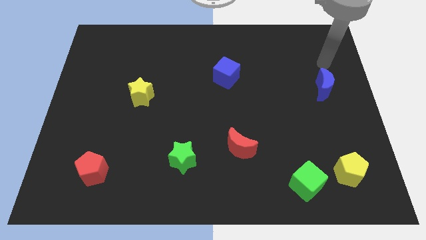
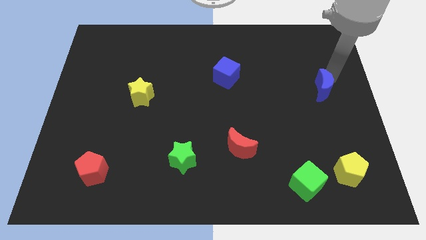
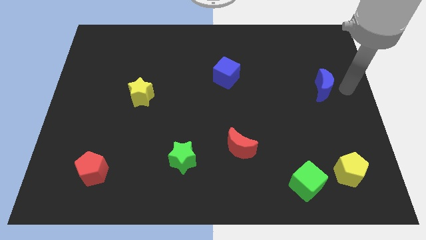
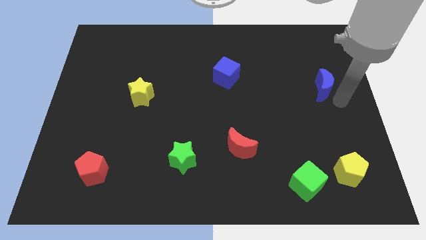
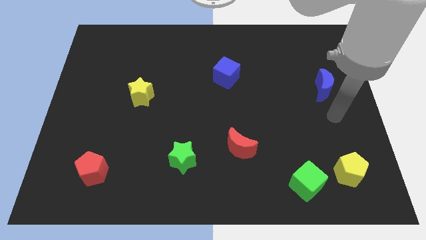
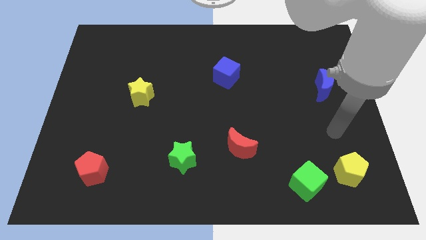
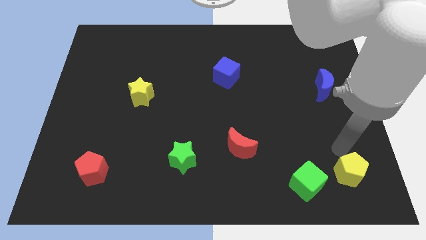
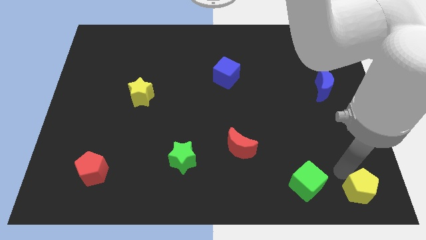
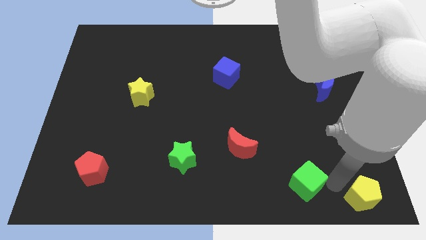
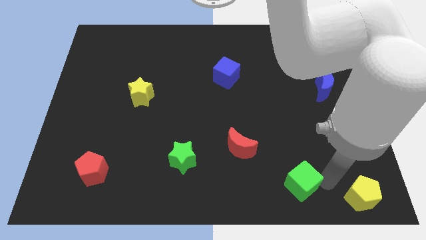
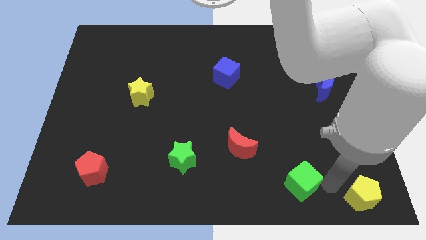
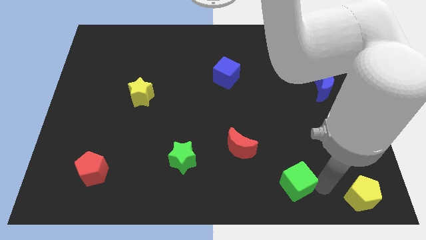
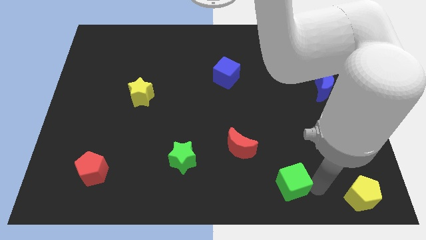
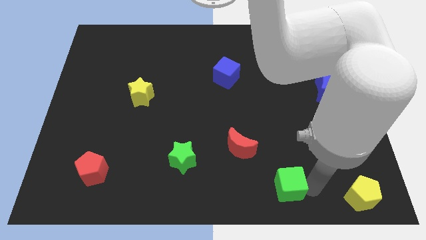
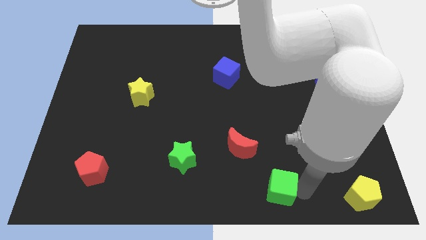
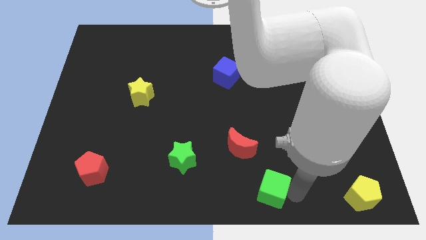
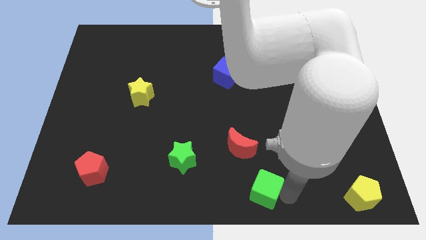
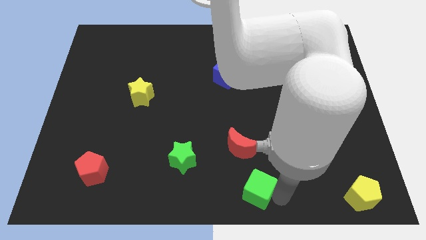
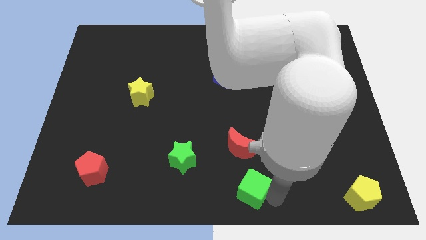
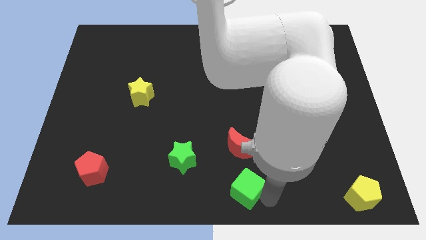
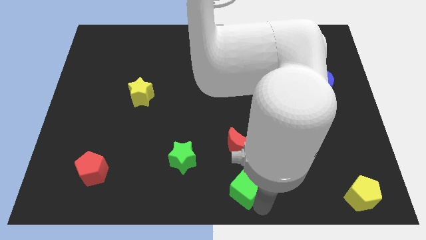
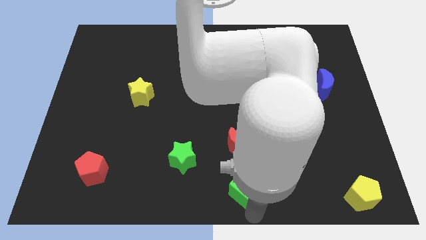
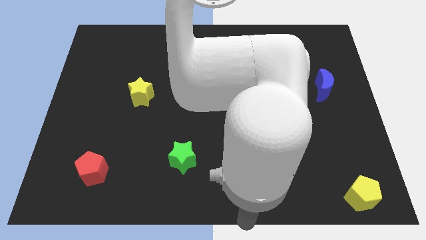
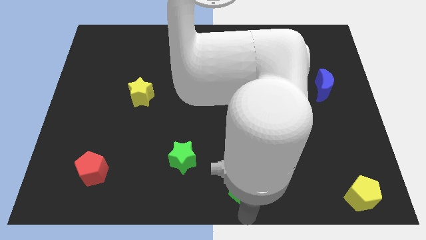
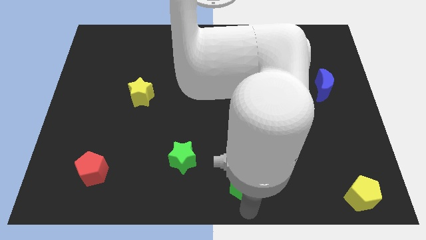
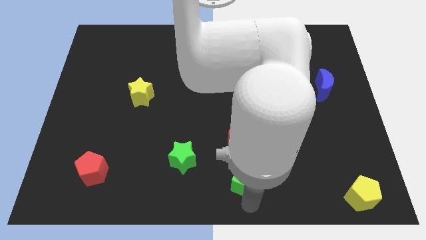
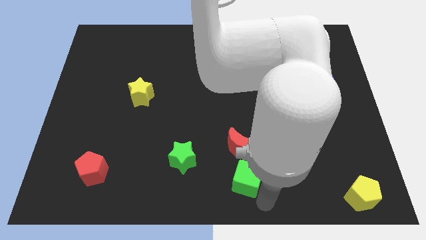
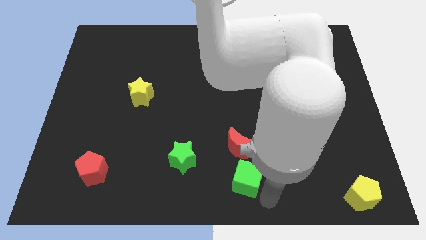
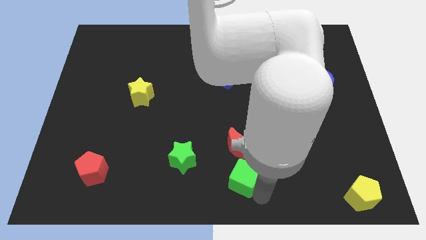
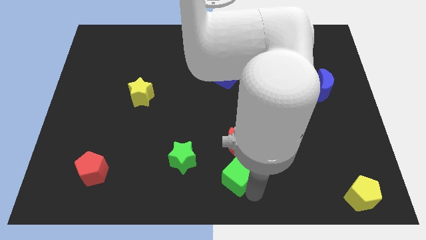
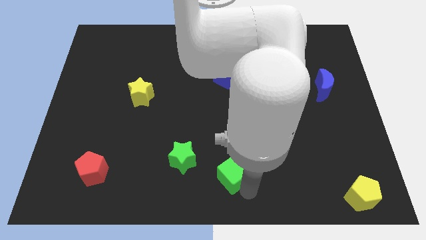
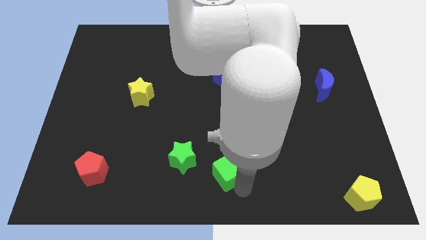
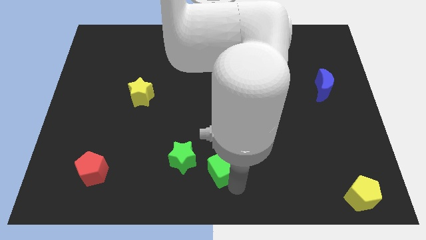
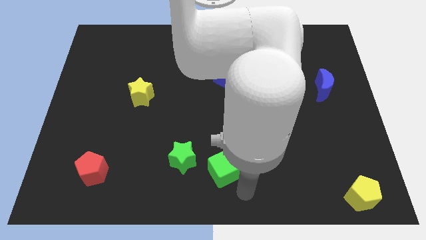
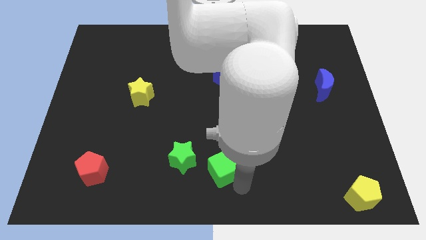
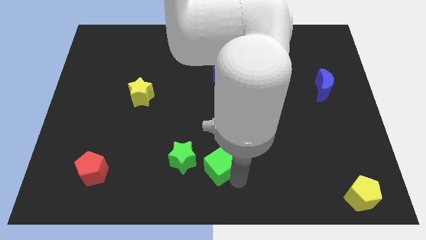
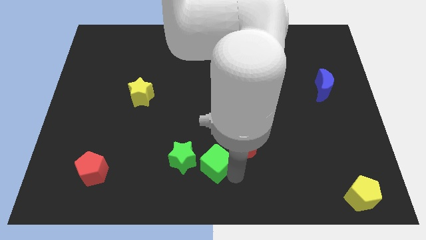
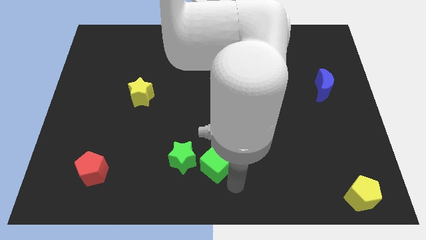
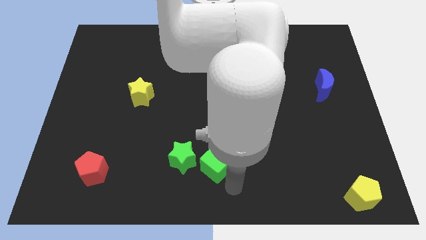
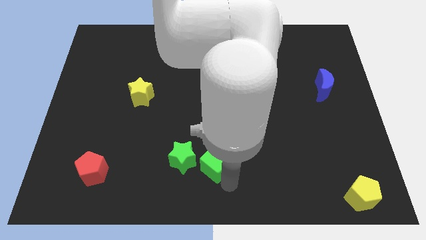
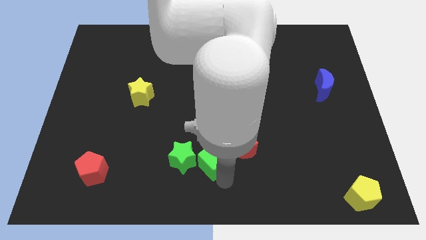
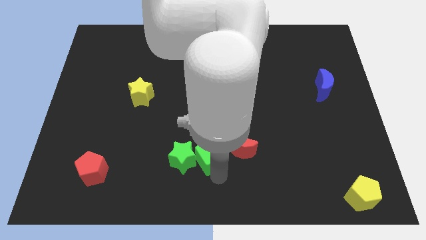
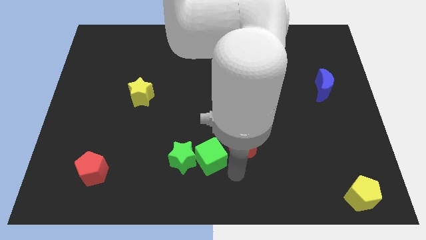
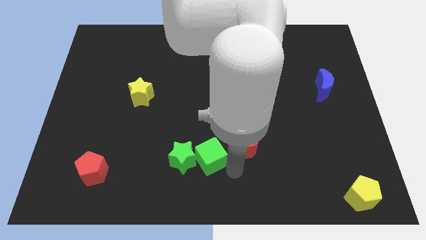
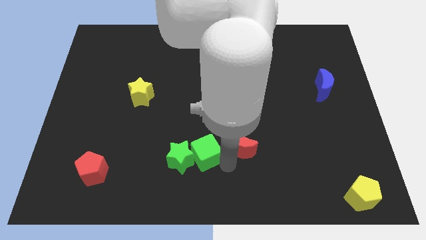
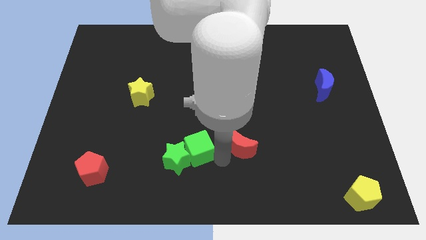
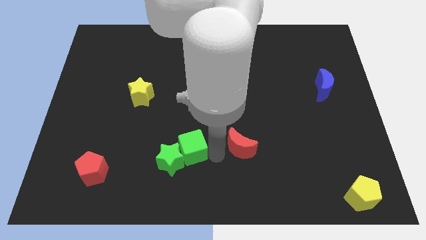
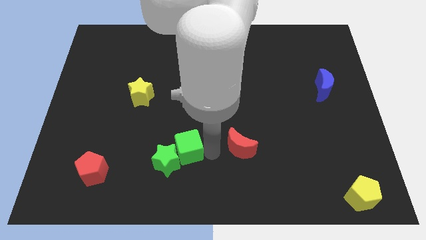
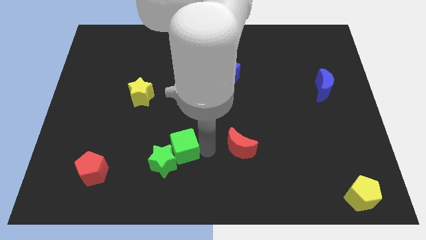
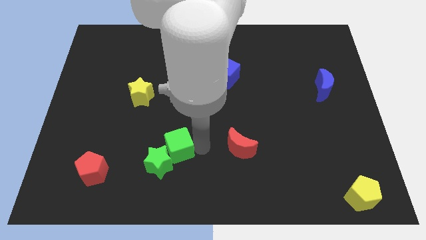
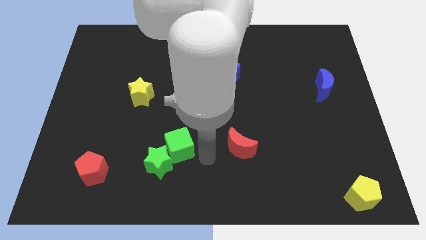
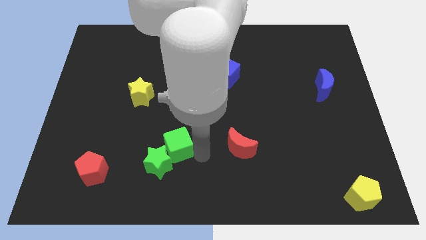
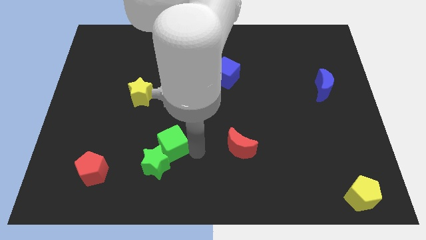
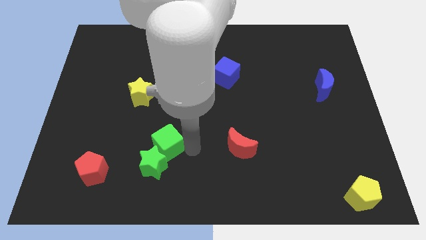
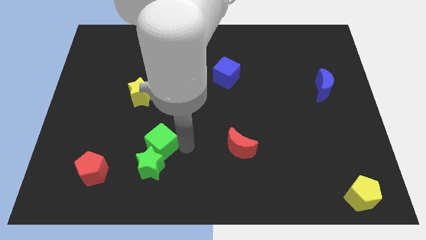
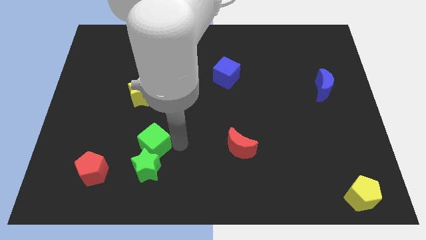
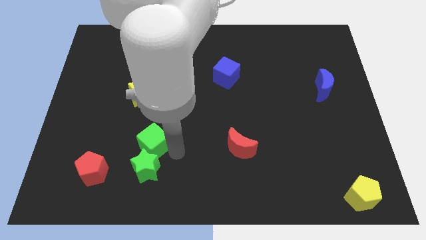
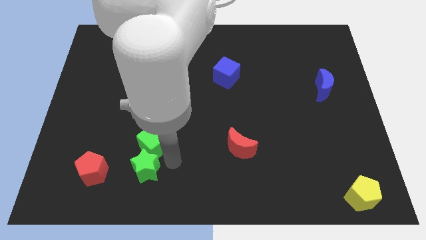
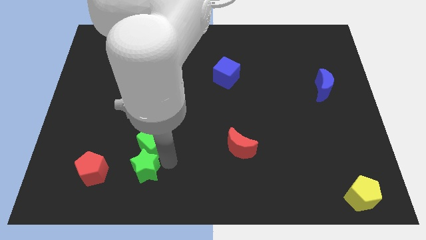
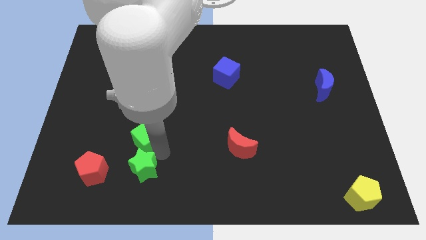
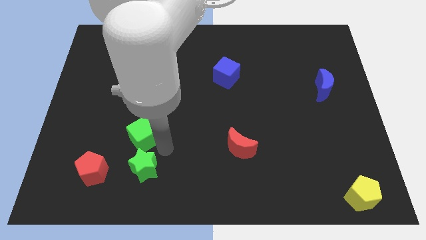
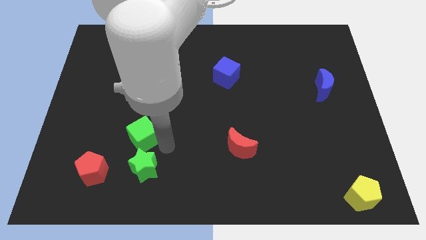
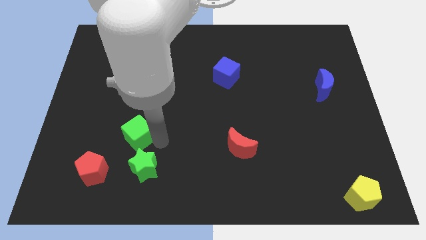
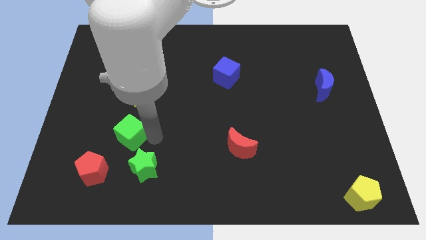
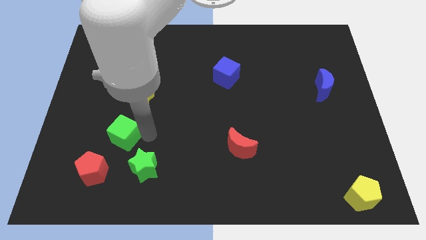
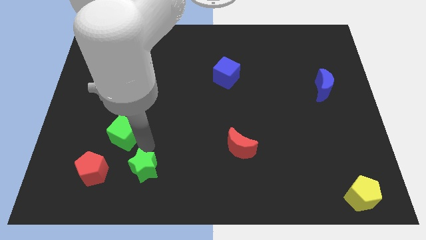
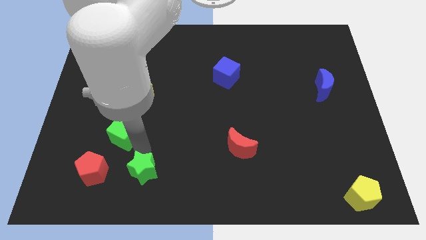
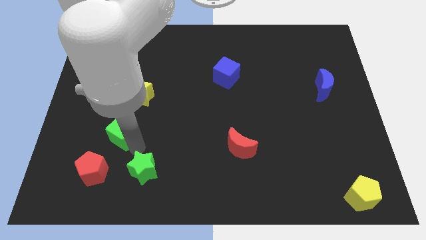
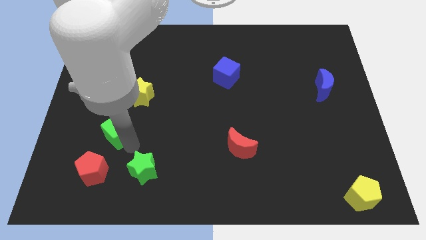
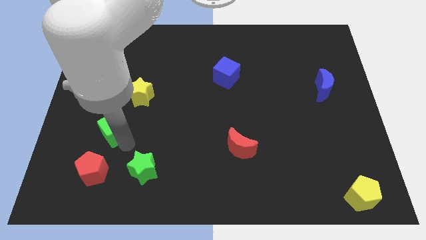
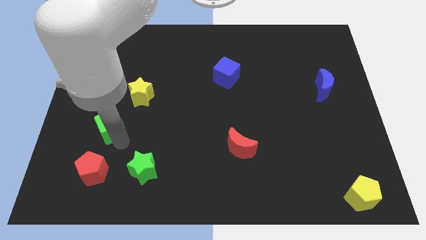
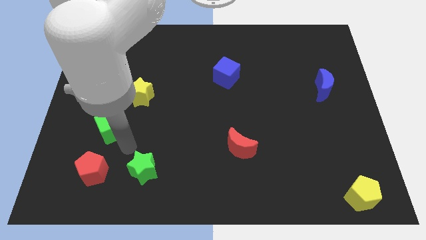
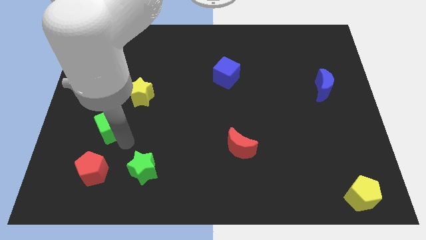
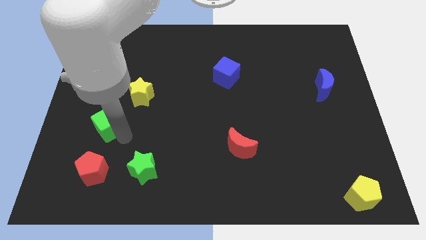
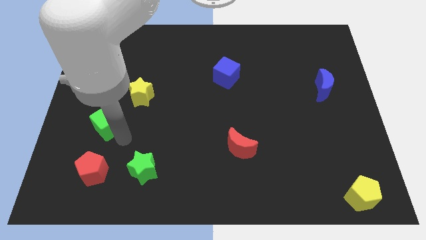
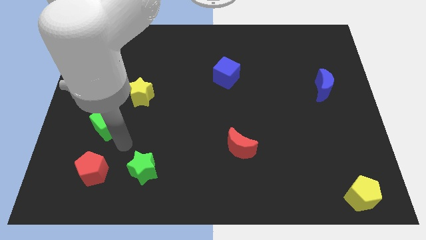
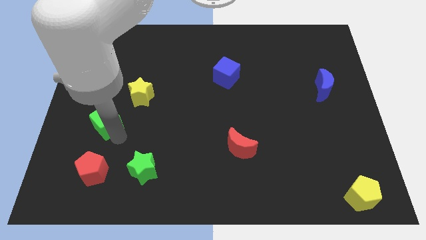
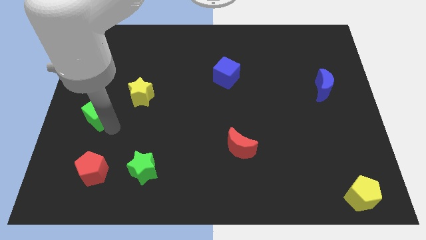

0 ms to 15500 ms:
move the green cube to the left side
